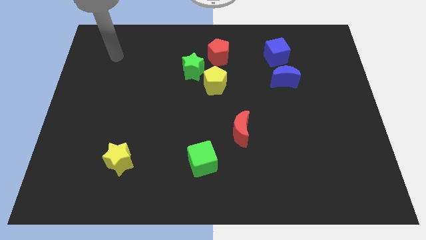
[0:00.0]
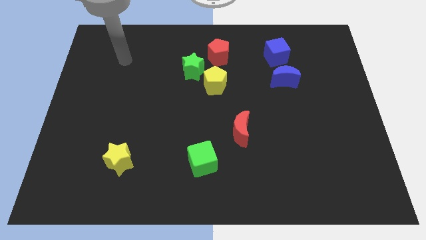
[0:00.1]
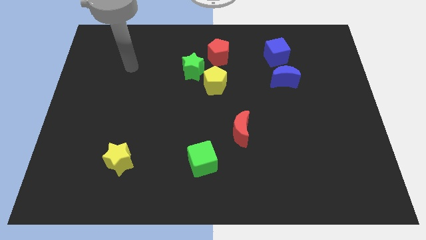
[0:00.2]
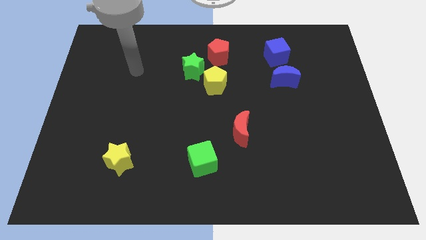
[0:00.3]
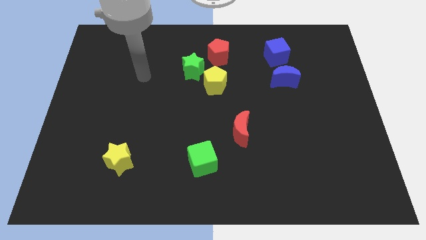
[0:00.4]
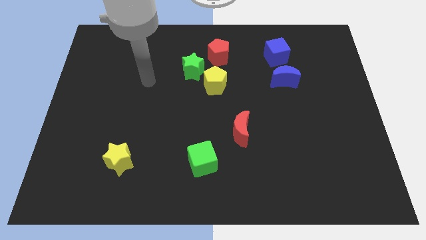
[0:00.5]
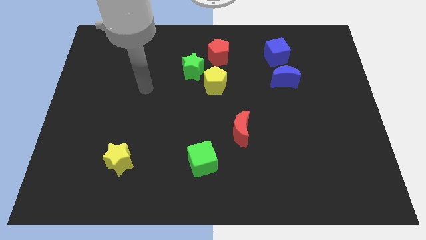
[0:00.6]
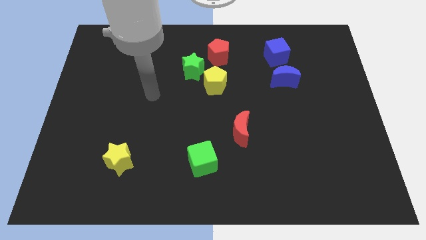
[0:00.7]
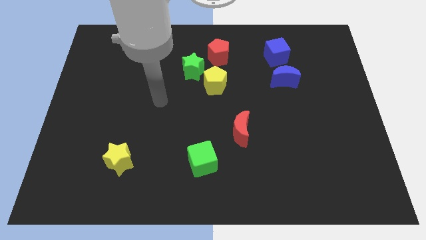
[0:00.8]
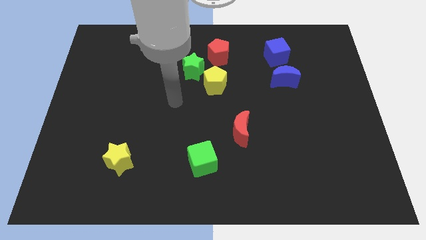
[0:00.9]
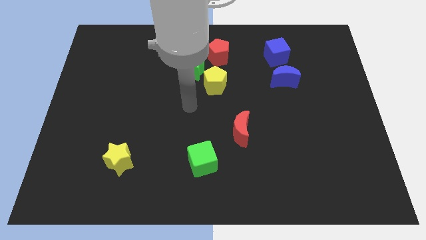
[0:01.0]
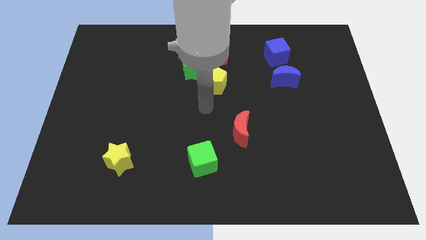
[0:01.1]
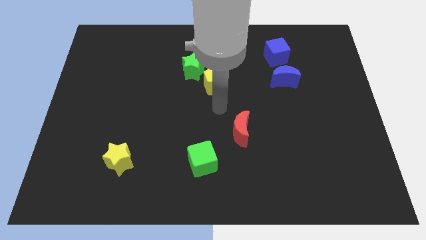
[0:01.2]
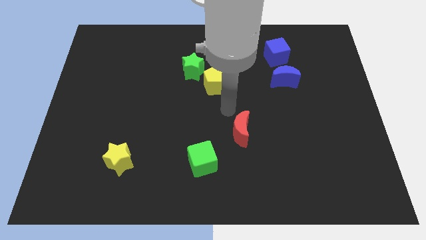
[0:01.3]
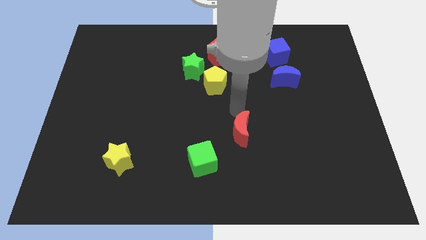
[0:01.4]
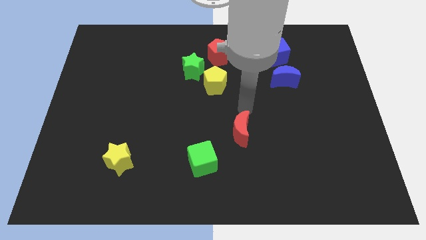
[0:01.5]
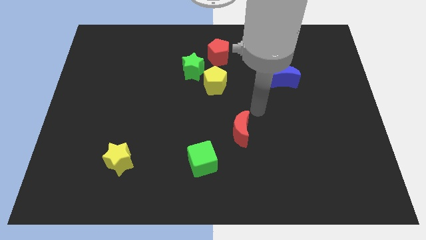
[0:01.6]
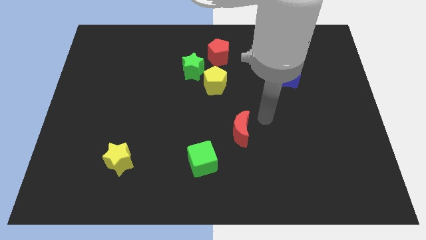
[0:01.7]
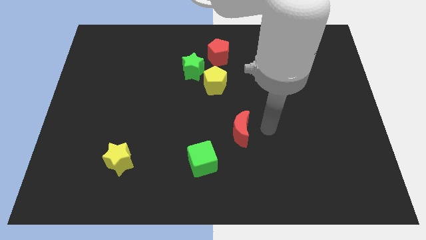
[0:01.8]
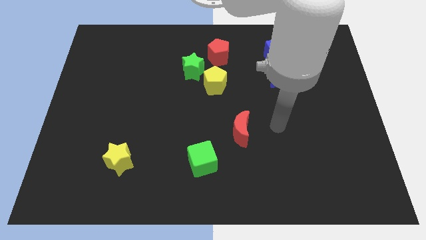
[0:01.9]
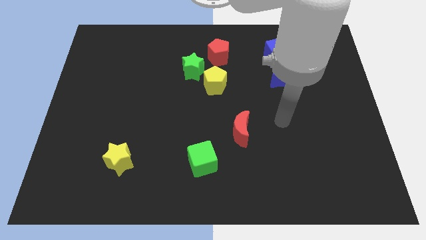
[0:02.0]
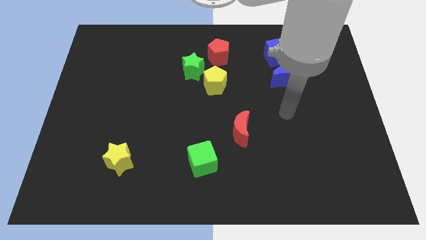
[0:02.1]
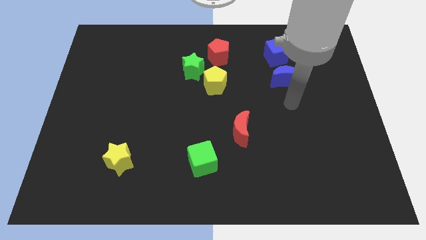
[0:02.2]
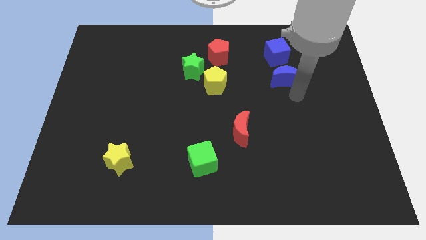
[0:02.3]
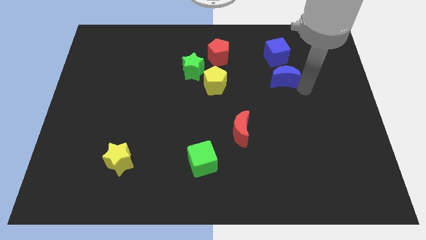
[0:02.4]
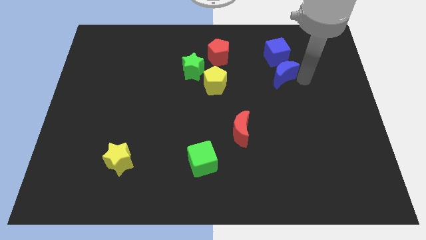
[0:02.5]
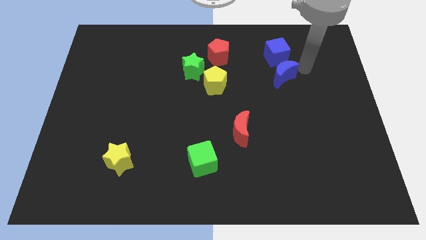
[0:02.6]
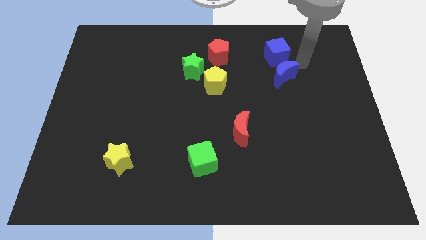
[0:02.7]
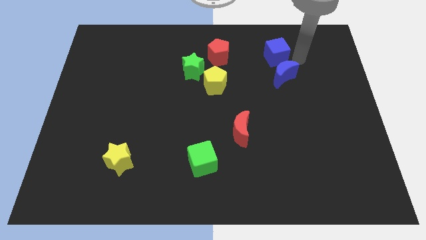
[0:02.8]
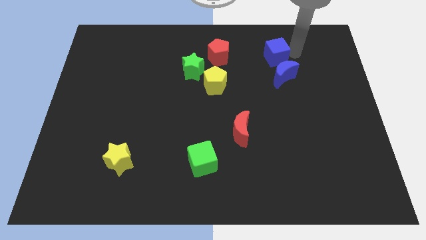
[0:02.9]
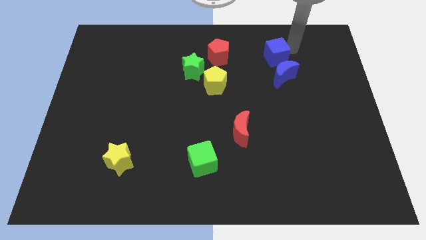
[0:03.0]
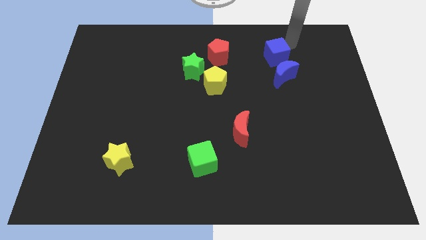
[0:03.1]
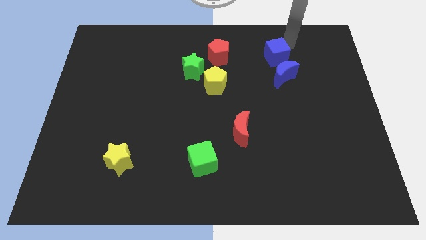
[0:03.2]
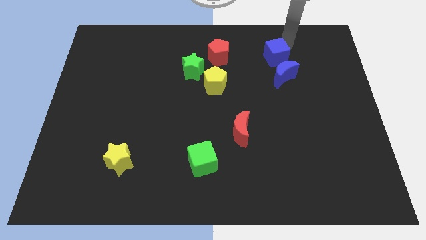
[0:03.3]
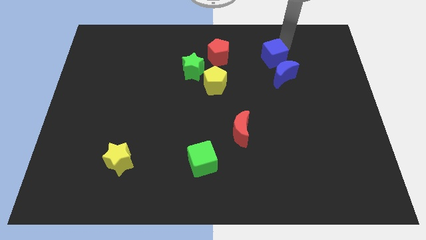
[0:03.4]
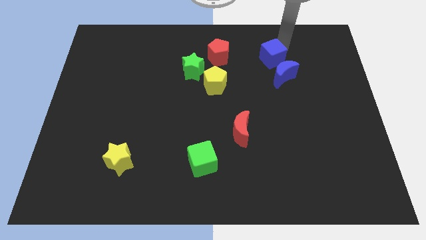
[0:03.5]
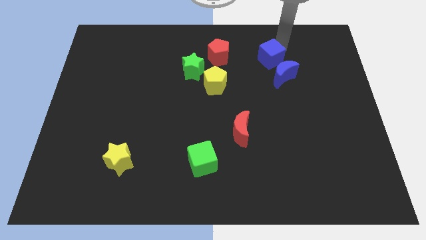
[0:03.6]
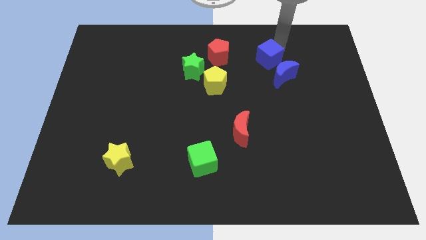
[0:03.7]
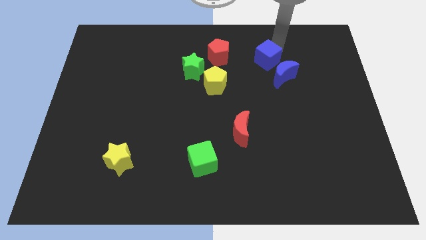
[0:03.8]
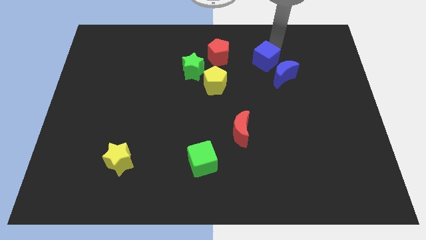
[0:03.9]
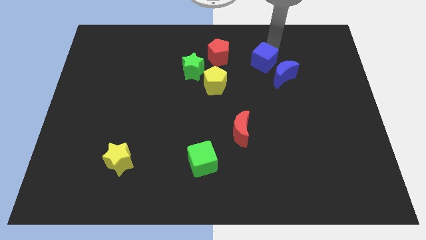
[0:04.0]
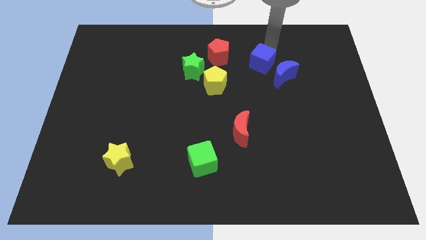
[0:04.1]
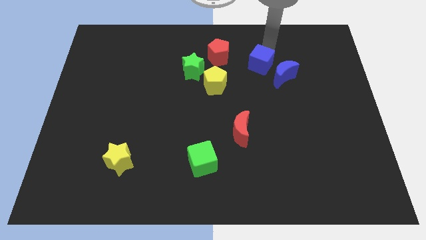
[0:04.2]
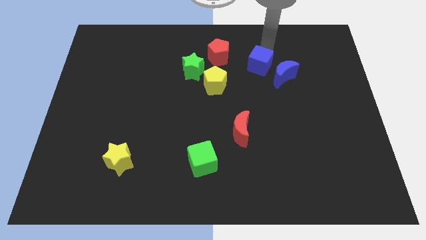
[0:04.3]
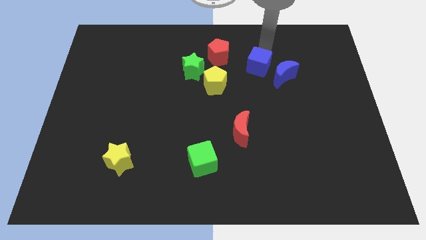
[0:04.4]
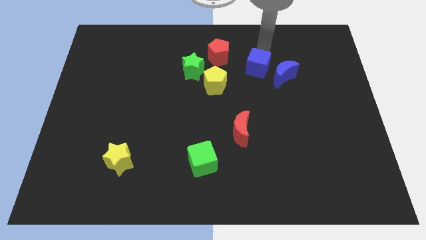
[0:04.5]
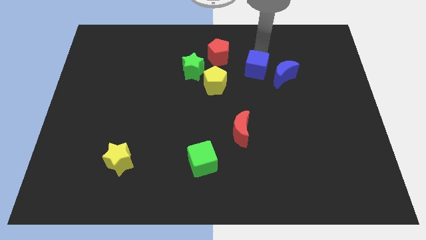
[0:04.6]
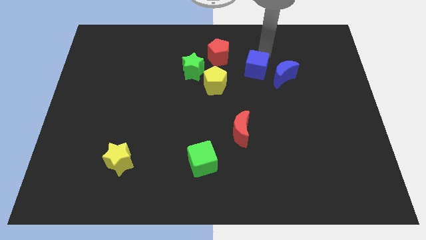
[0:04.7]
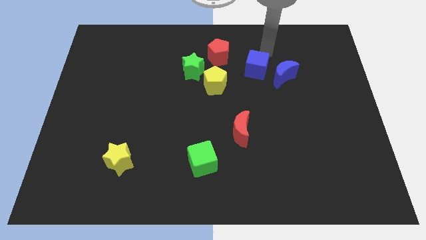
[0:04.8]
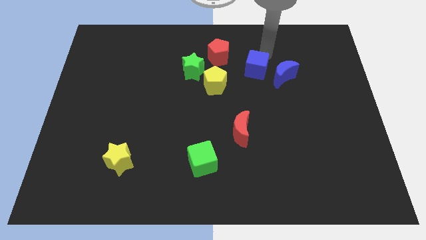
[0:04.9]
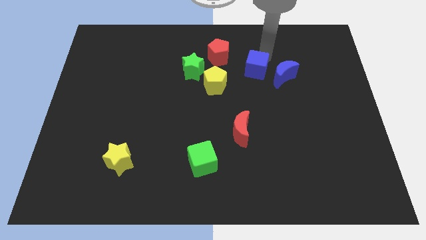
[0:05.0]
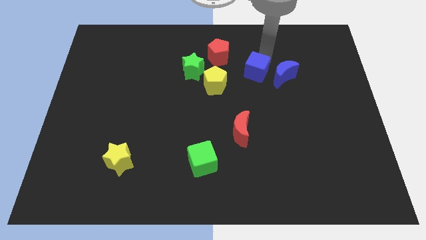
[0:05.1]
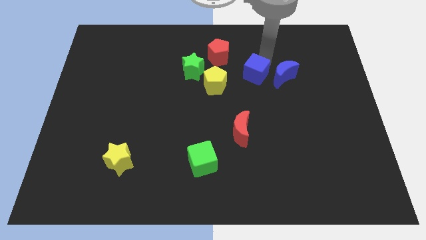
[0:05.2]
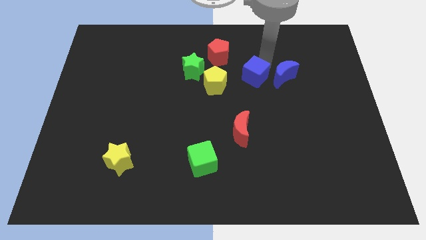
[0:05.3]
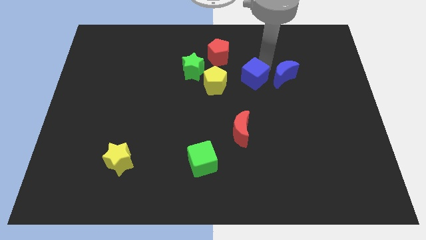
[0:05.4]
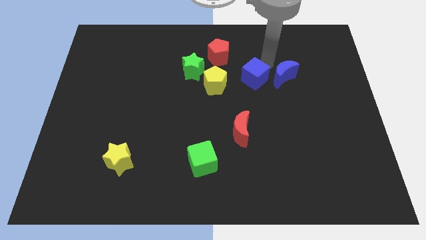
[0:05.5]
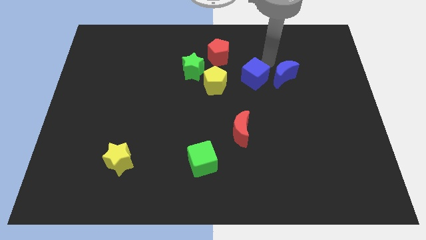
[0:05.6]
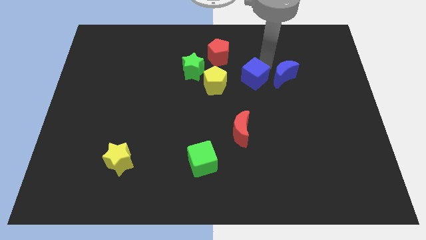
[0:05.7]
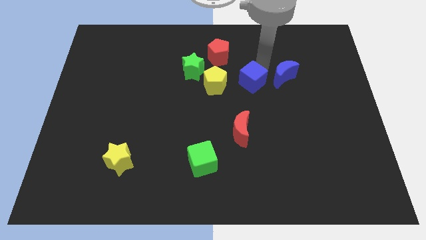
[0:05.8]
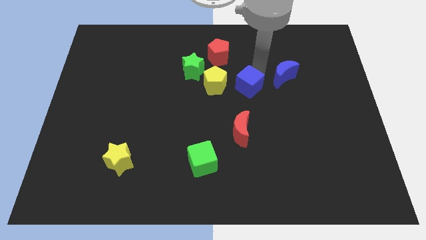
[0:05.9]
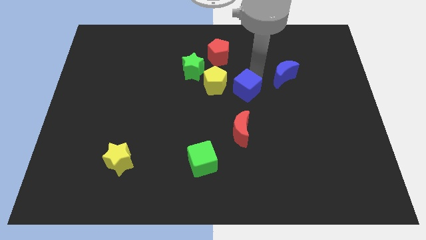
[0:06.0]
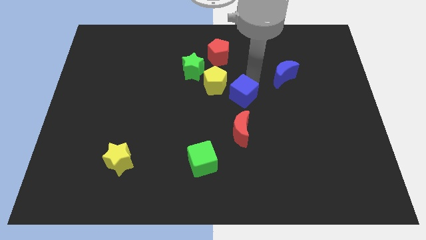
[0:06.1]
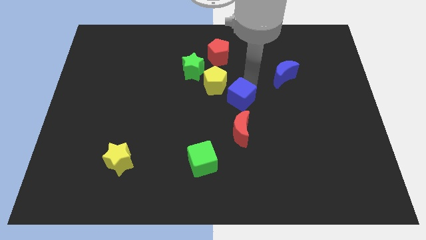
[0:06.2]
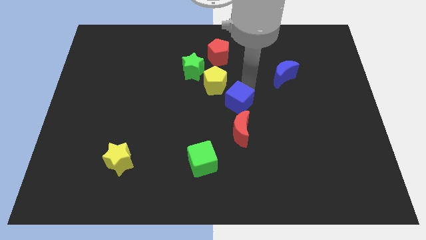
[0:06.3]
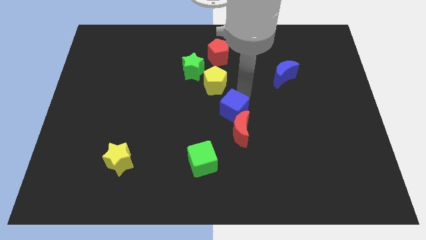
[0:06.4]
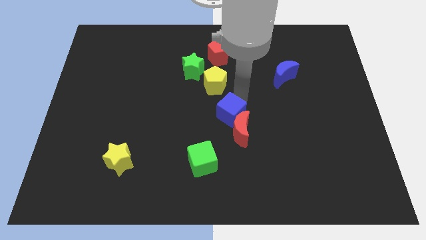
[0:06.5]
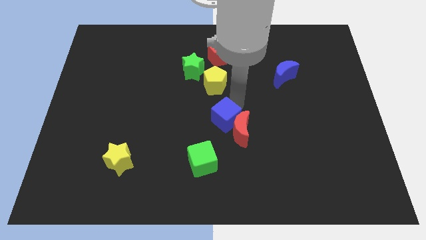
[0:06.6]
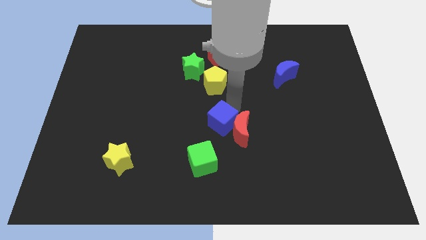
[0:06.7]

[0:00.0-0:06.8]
put the blue cube to the top right side of the green cube
